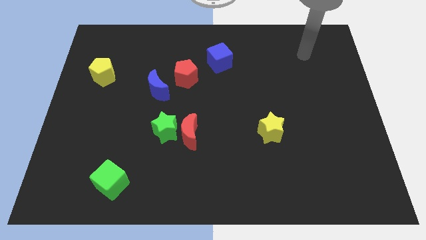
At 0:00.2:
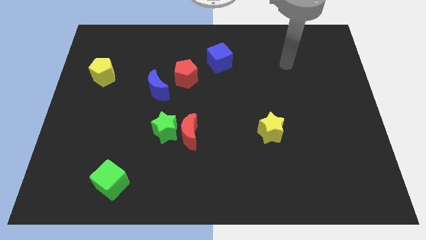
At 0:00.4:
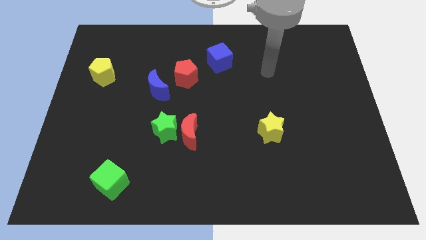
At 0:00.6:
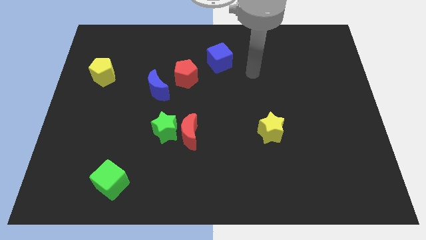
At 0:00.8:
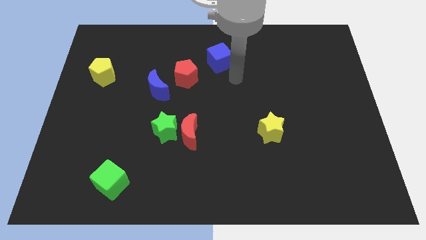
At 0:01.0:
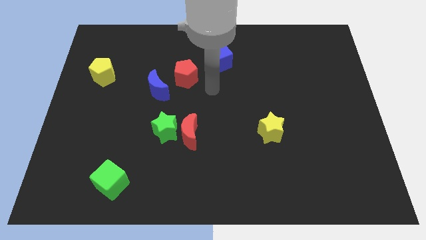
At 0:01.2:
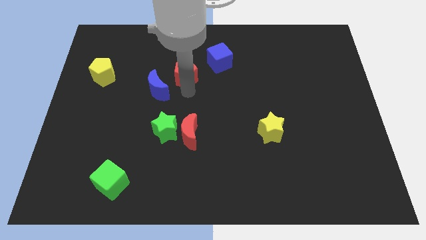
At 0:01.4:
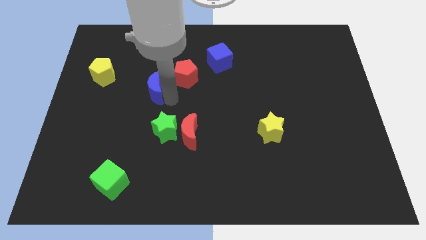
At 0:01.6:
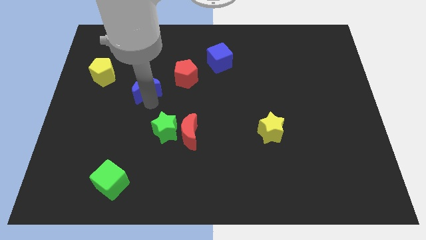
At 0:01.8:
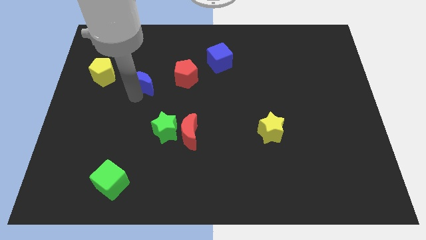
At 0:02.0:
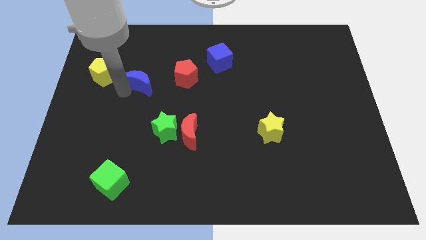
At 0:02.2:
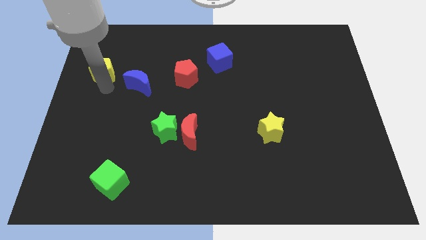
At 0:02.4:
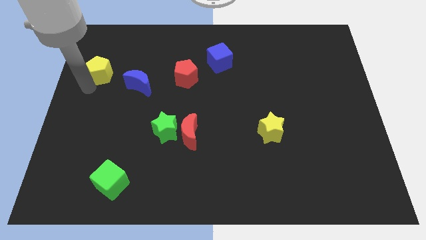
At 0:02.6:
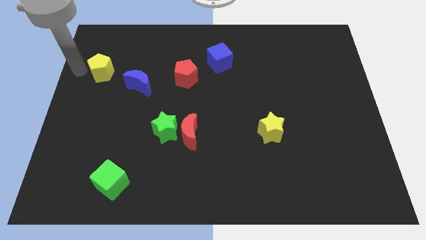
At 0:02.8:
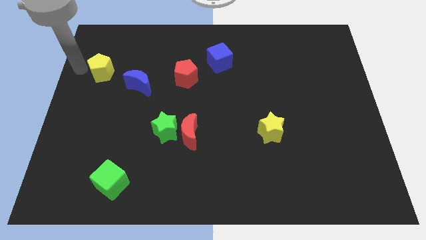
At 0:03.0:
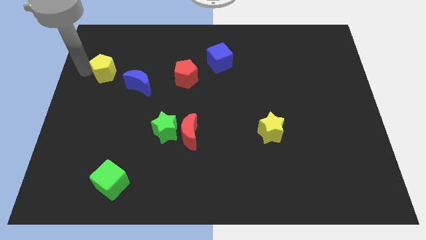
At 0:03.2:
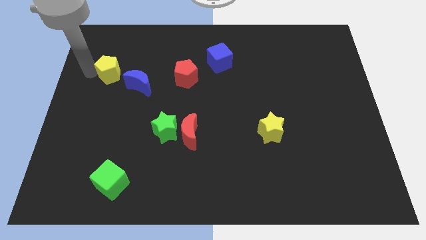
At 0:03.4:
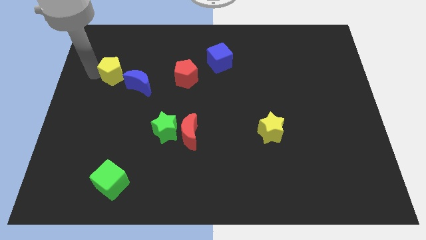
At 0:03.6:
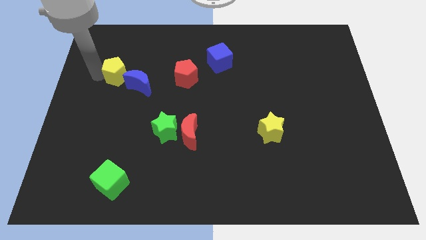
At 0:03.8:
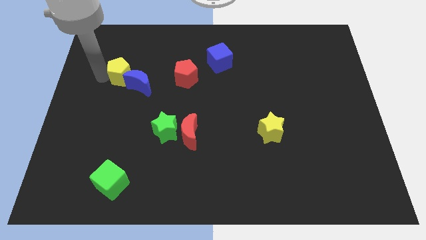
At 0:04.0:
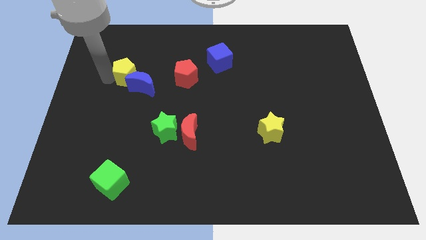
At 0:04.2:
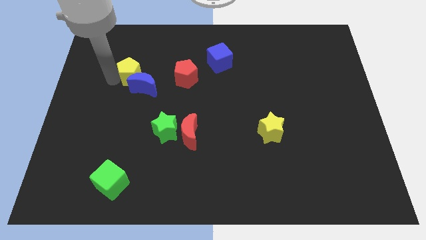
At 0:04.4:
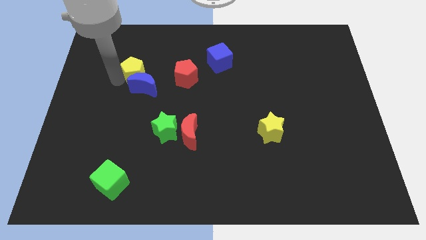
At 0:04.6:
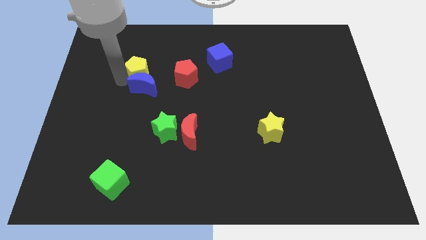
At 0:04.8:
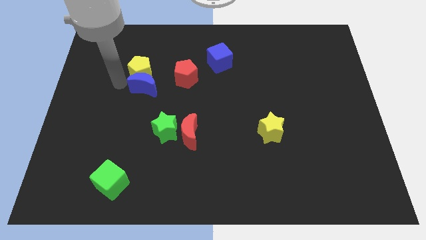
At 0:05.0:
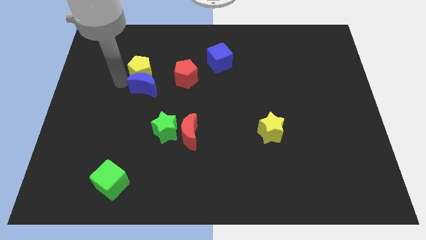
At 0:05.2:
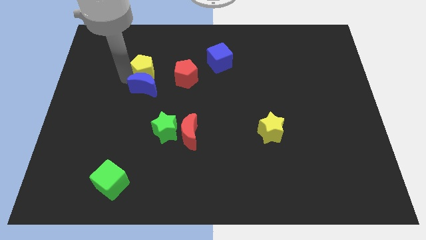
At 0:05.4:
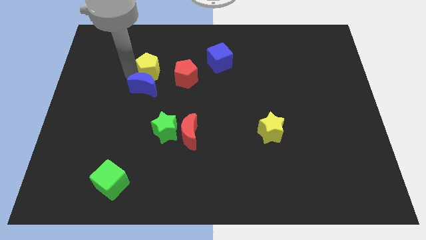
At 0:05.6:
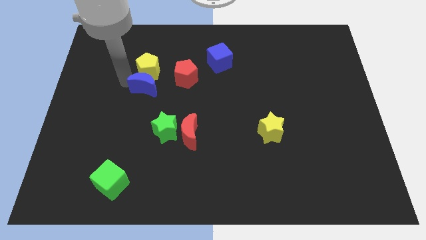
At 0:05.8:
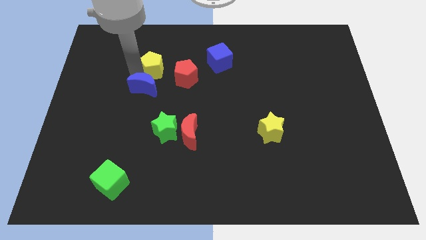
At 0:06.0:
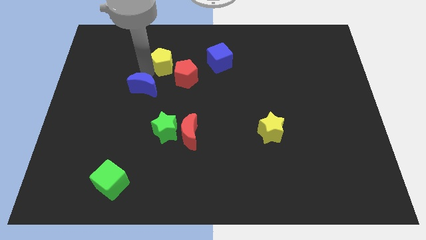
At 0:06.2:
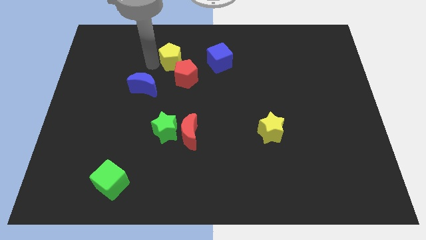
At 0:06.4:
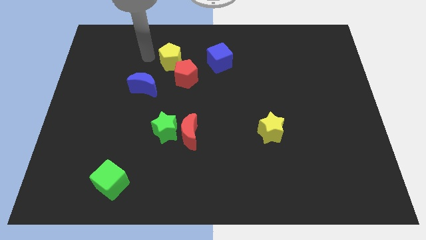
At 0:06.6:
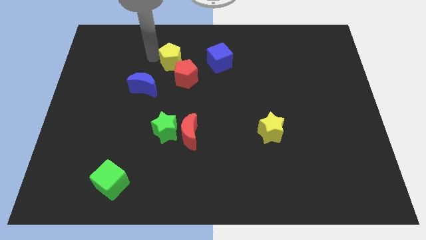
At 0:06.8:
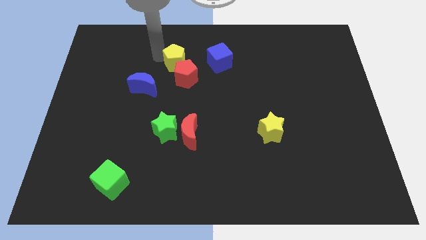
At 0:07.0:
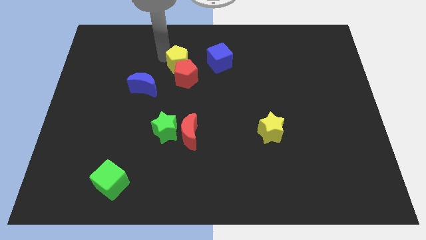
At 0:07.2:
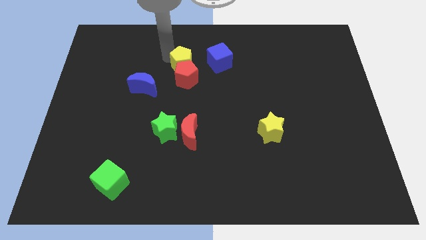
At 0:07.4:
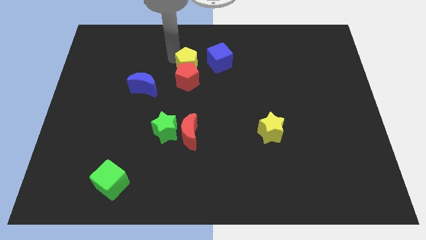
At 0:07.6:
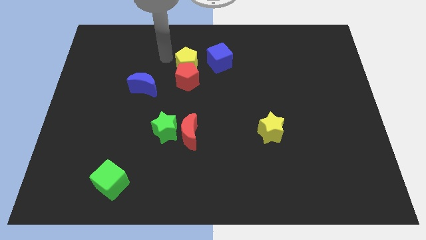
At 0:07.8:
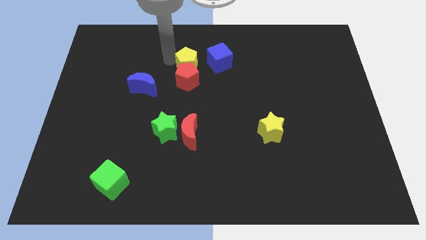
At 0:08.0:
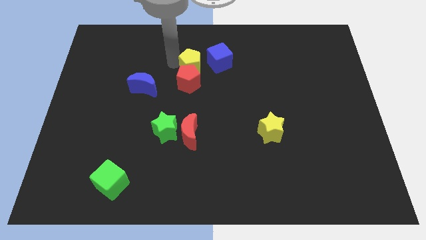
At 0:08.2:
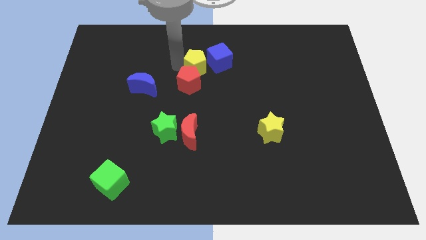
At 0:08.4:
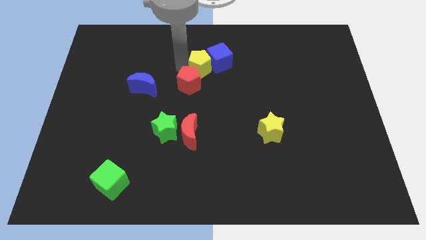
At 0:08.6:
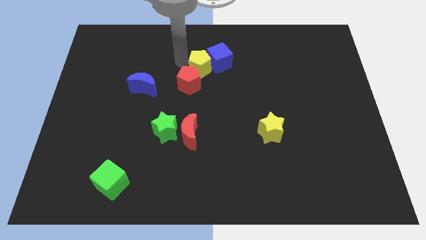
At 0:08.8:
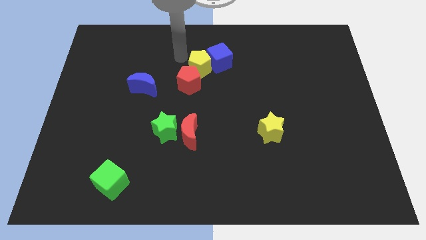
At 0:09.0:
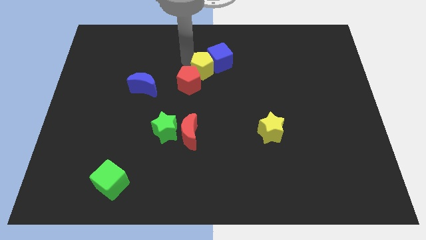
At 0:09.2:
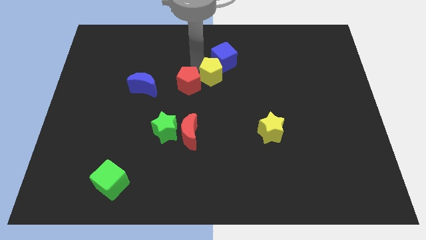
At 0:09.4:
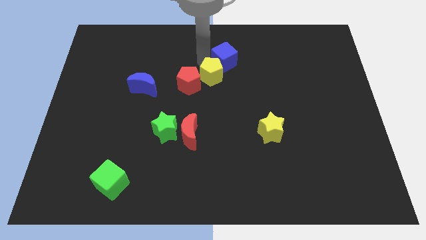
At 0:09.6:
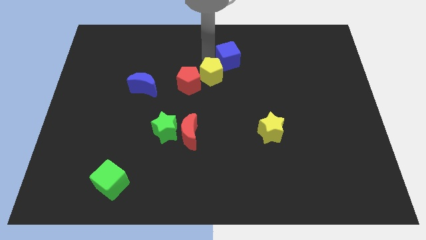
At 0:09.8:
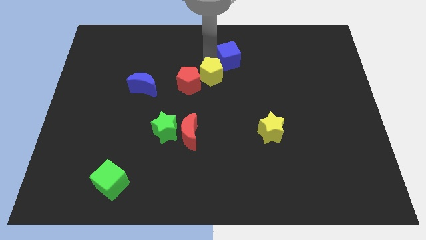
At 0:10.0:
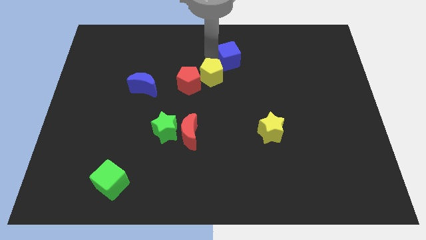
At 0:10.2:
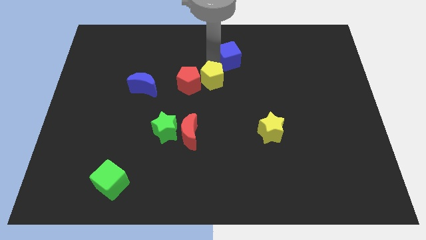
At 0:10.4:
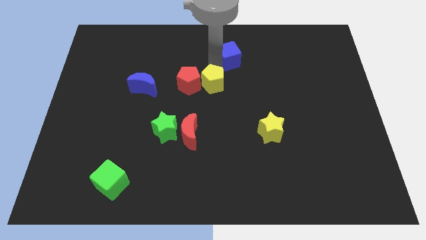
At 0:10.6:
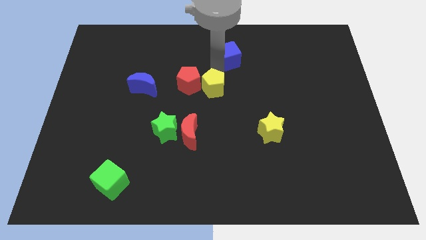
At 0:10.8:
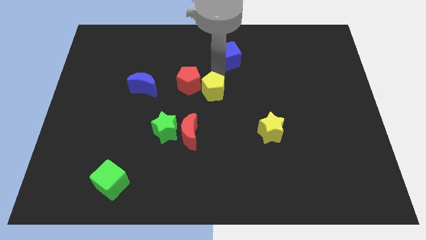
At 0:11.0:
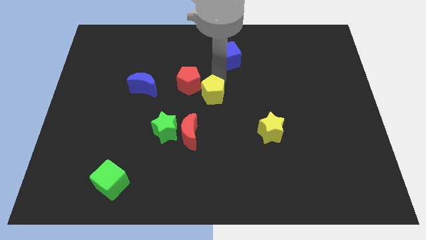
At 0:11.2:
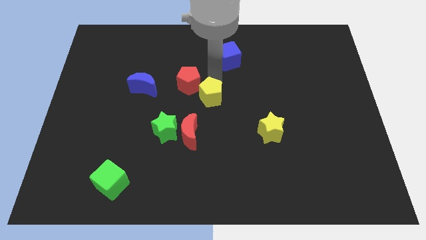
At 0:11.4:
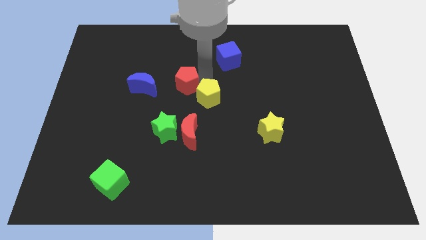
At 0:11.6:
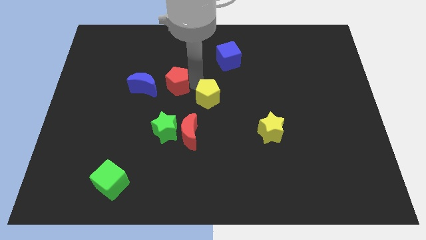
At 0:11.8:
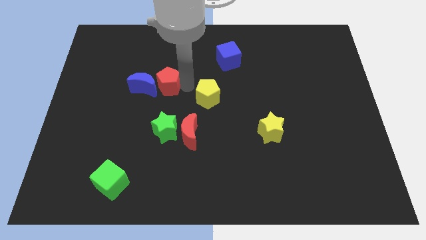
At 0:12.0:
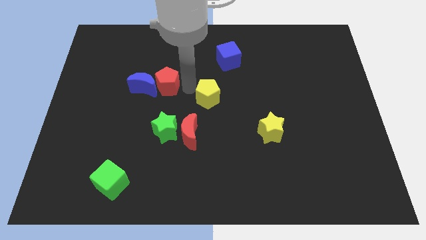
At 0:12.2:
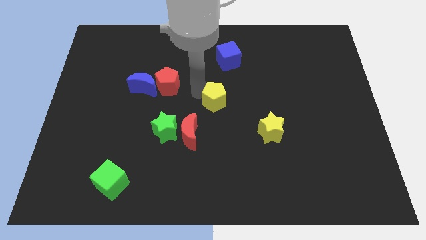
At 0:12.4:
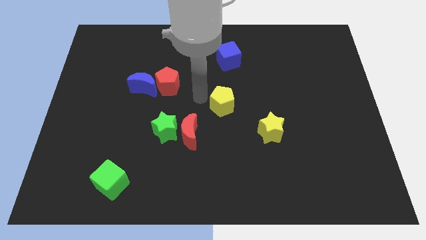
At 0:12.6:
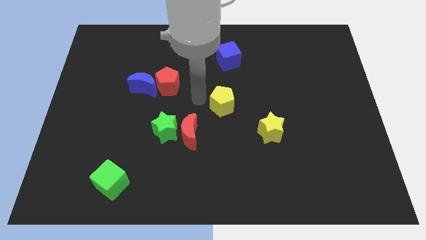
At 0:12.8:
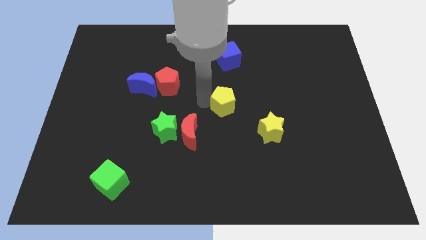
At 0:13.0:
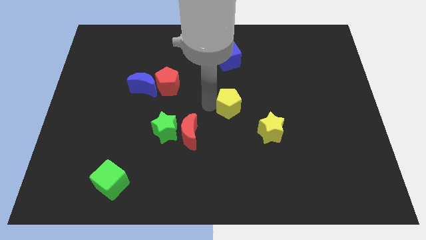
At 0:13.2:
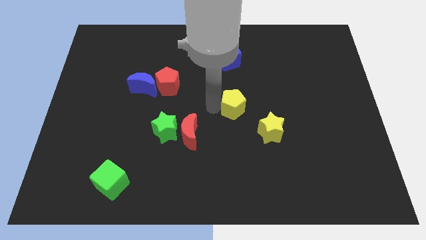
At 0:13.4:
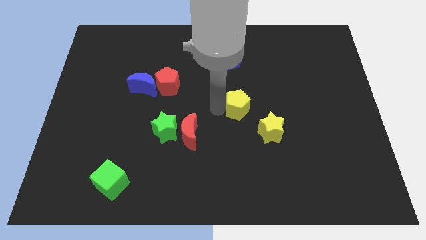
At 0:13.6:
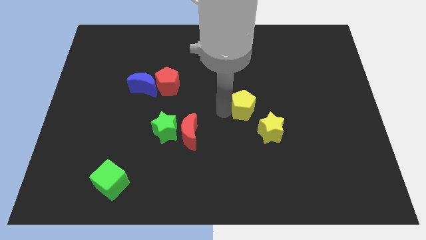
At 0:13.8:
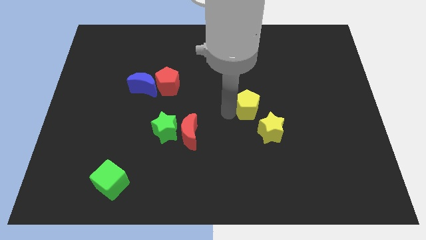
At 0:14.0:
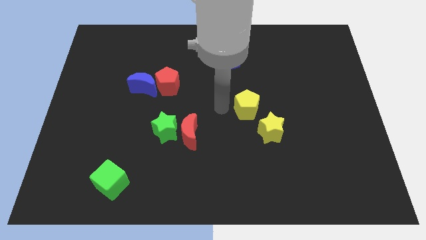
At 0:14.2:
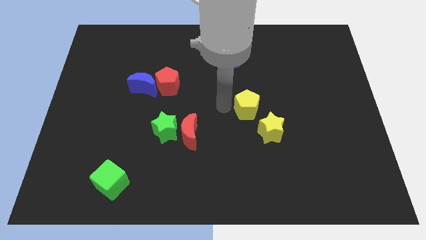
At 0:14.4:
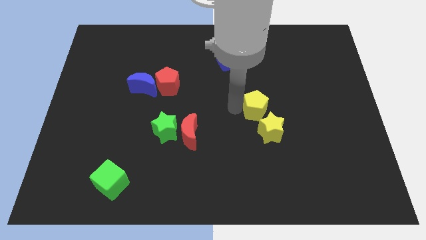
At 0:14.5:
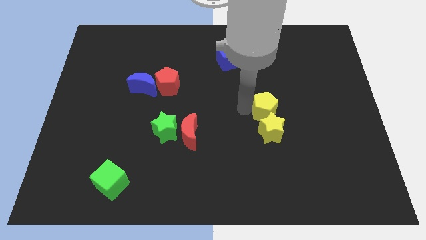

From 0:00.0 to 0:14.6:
push the yellow pentagon to the top right of the yellow star

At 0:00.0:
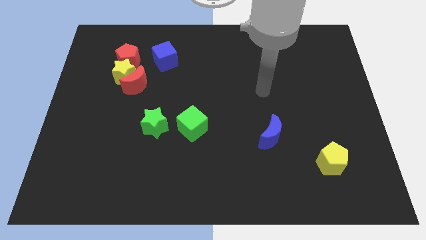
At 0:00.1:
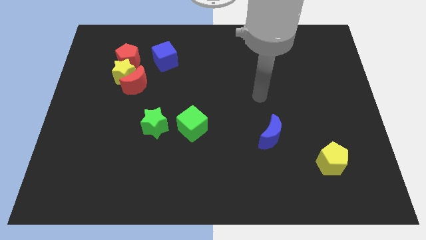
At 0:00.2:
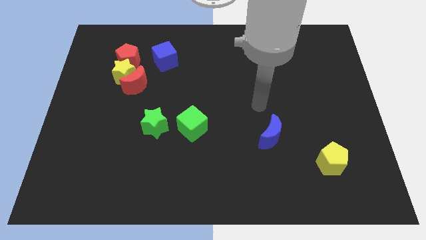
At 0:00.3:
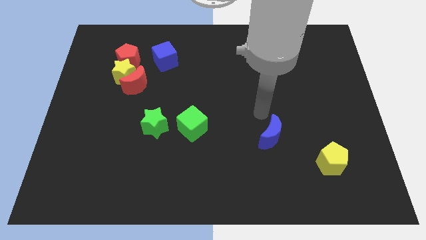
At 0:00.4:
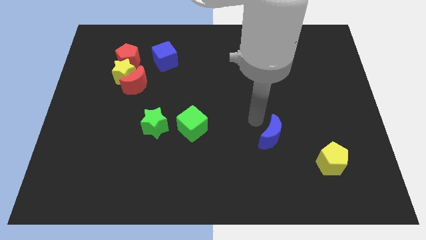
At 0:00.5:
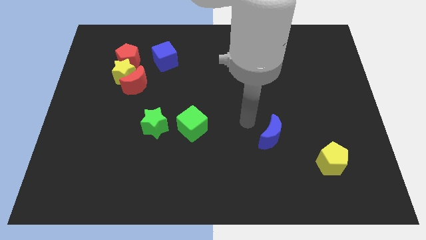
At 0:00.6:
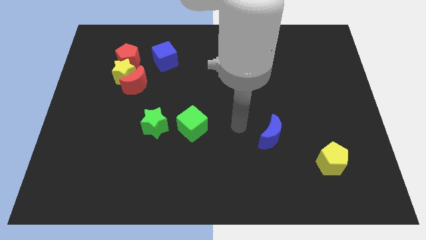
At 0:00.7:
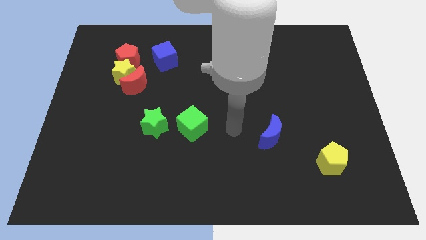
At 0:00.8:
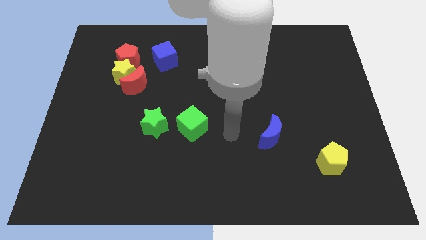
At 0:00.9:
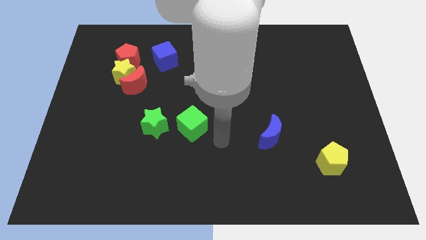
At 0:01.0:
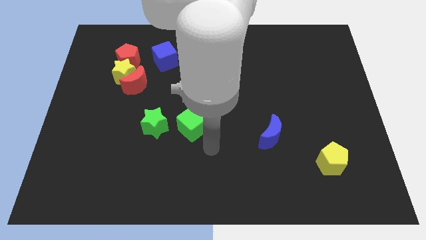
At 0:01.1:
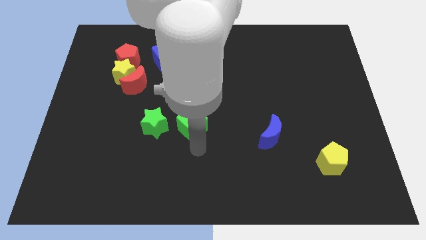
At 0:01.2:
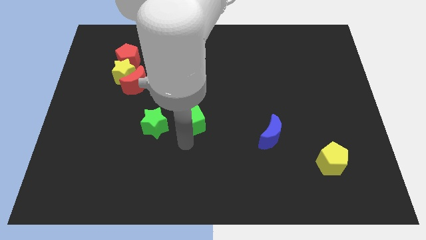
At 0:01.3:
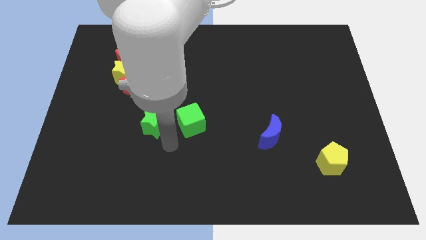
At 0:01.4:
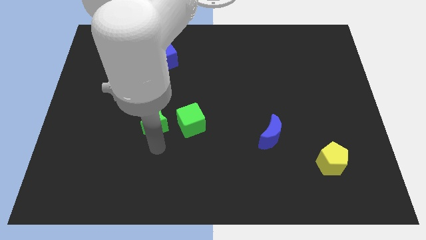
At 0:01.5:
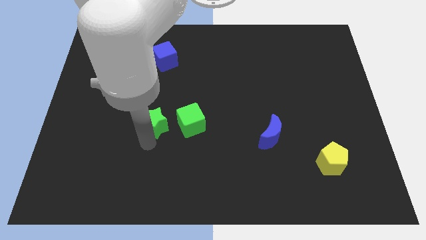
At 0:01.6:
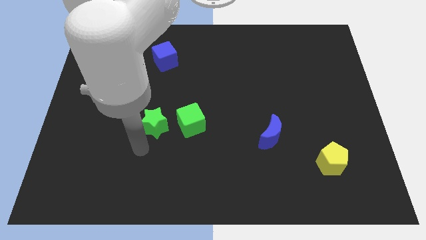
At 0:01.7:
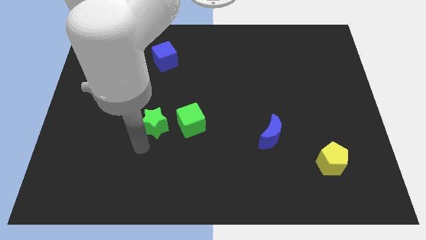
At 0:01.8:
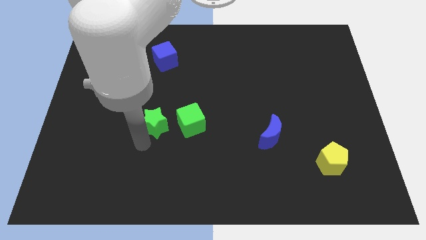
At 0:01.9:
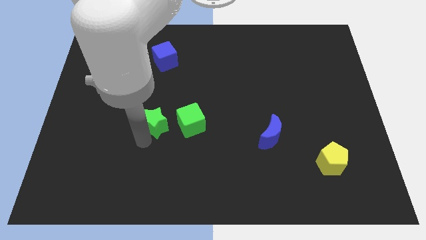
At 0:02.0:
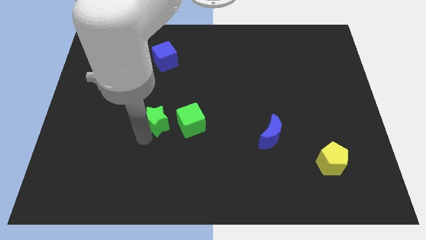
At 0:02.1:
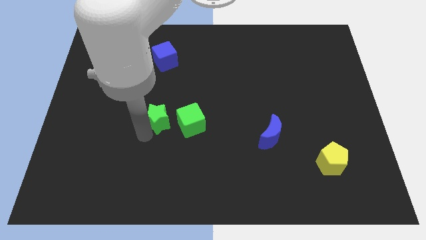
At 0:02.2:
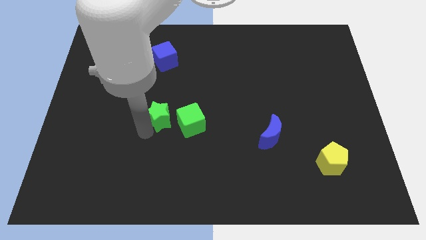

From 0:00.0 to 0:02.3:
move the green star diagonally up and to the left of the green cube
